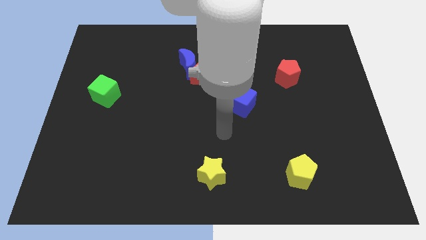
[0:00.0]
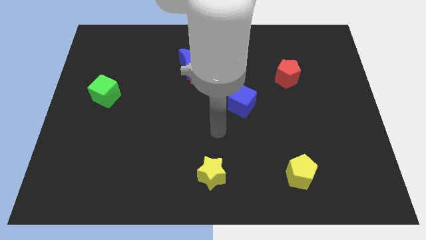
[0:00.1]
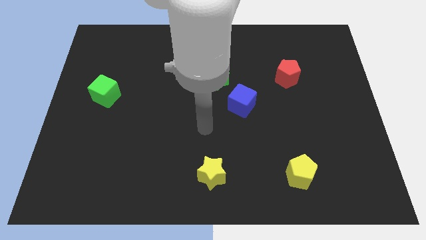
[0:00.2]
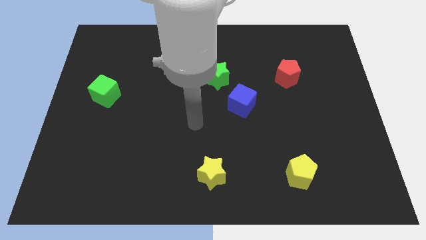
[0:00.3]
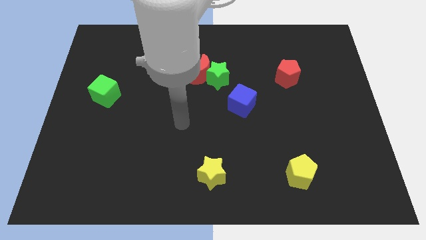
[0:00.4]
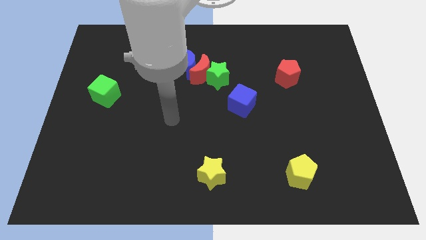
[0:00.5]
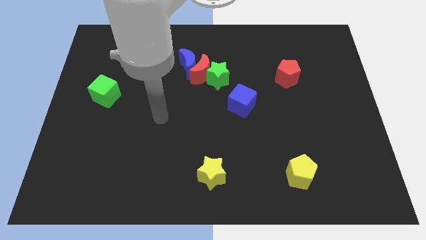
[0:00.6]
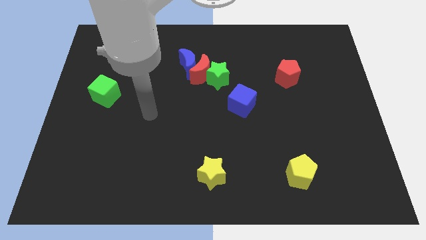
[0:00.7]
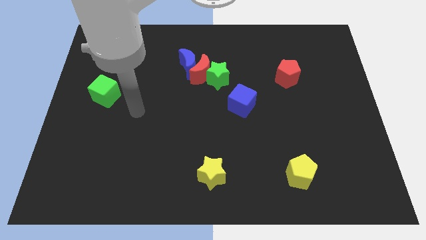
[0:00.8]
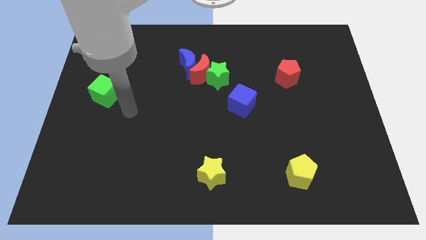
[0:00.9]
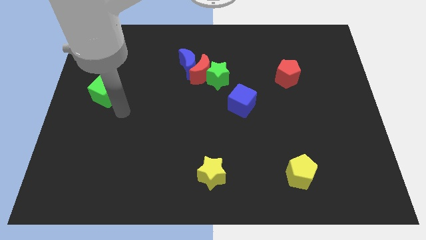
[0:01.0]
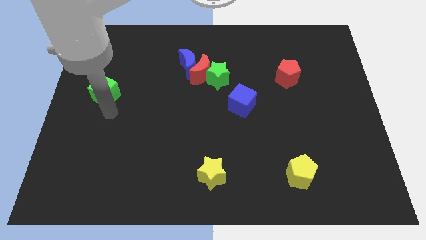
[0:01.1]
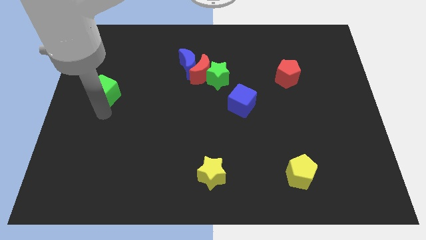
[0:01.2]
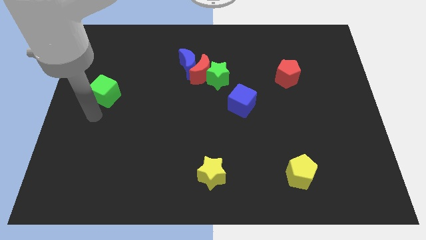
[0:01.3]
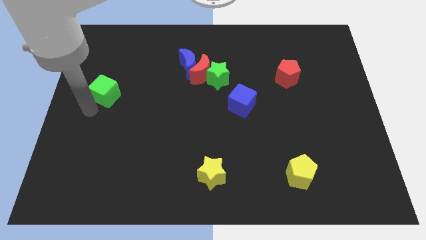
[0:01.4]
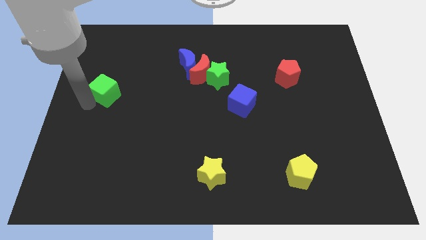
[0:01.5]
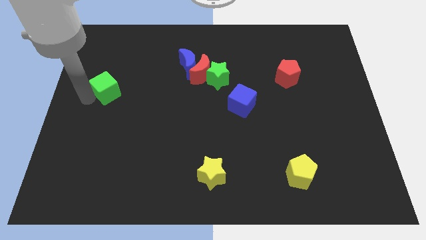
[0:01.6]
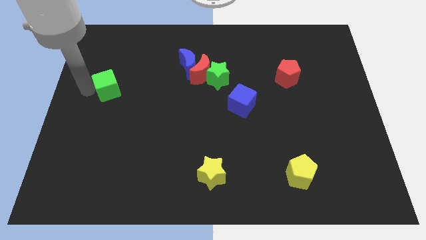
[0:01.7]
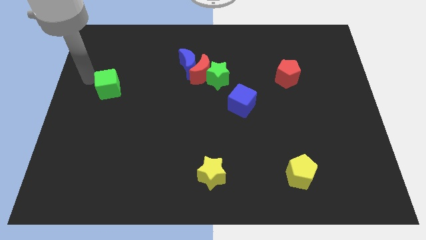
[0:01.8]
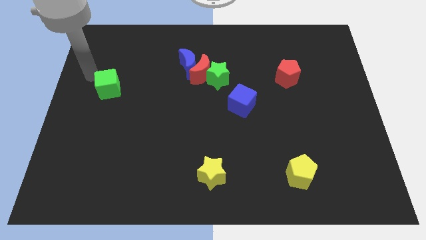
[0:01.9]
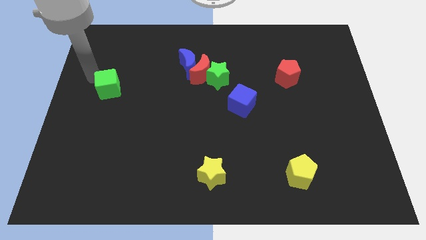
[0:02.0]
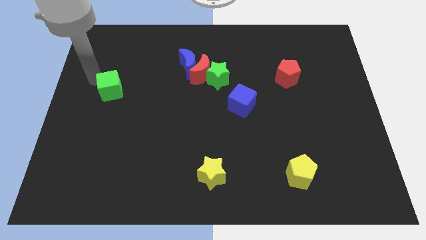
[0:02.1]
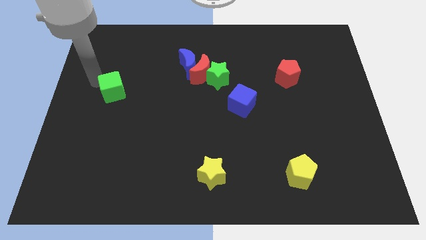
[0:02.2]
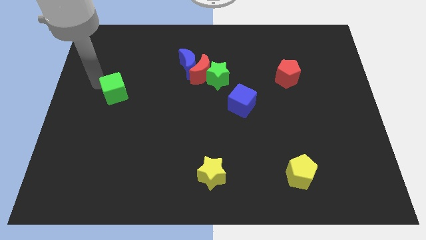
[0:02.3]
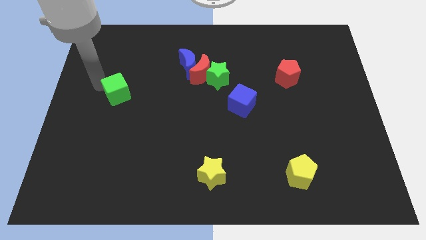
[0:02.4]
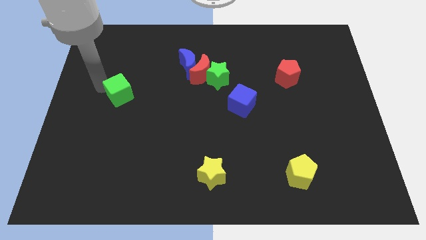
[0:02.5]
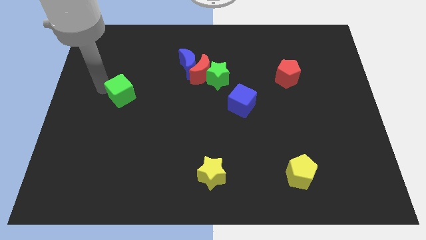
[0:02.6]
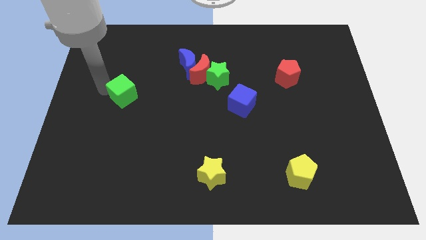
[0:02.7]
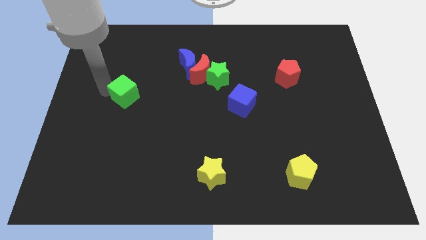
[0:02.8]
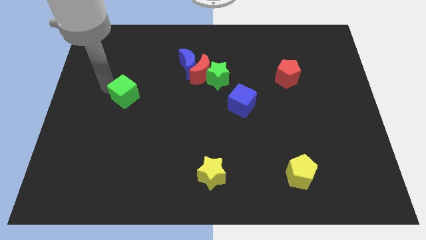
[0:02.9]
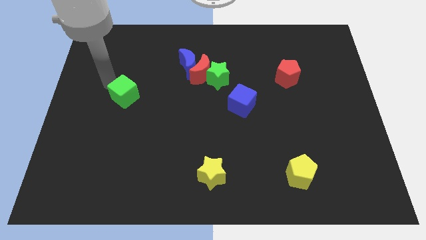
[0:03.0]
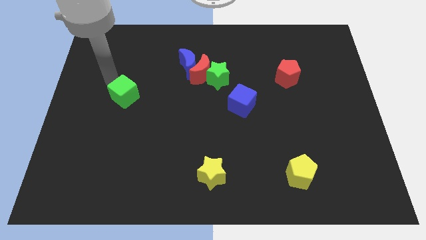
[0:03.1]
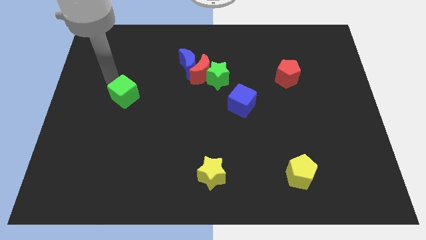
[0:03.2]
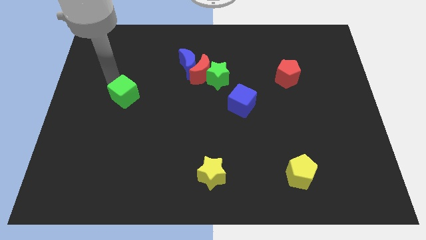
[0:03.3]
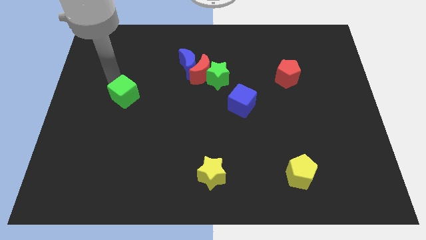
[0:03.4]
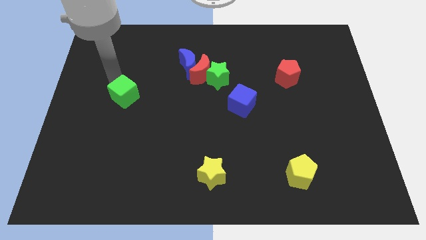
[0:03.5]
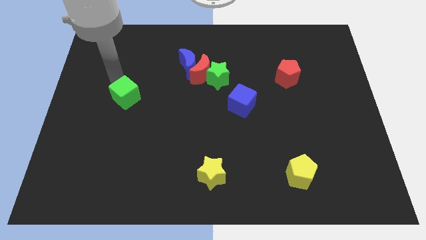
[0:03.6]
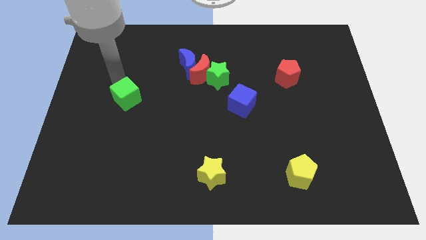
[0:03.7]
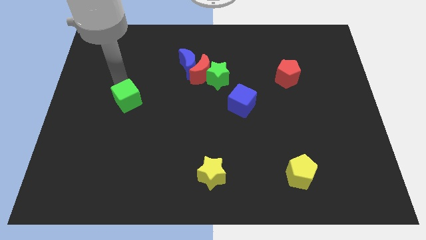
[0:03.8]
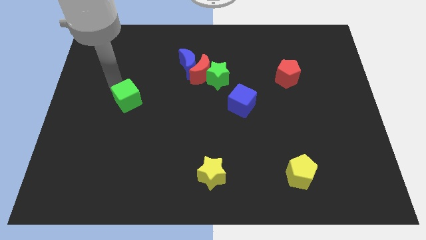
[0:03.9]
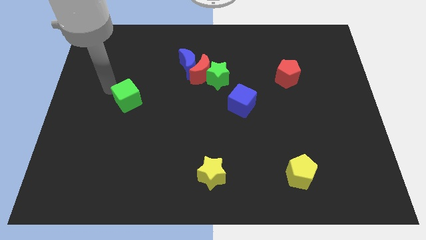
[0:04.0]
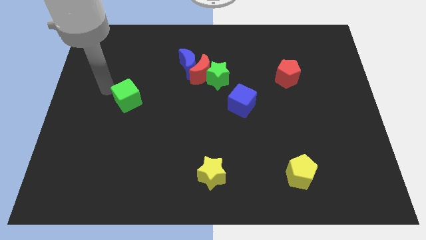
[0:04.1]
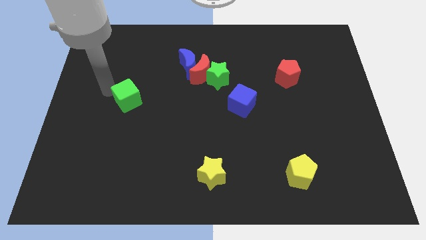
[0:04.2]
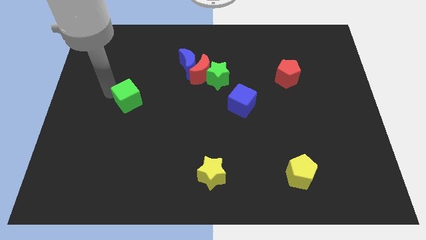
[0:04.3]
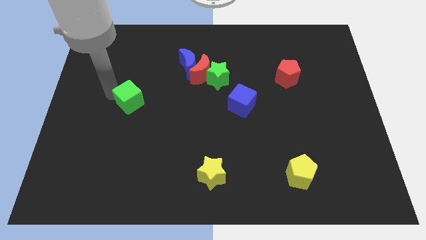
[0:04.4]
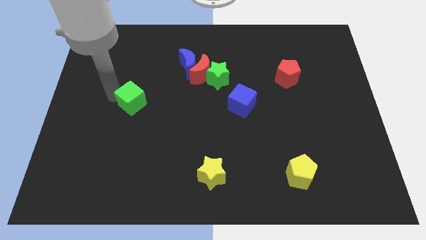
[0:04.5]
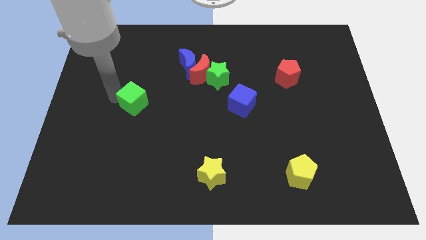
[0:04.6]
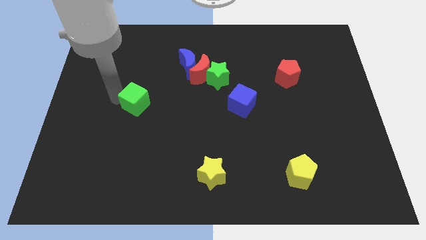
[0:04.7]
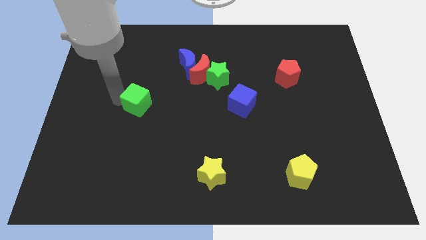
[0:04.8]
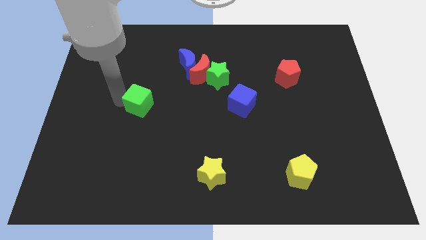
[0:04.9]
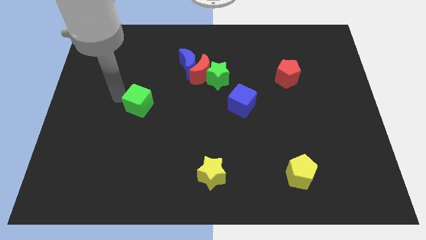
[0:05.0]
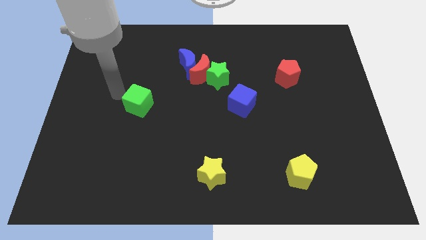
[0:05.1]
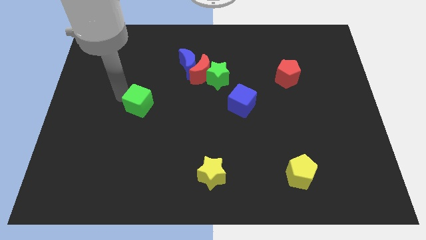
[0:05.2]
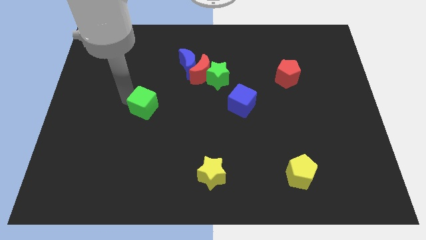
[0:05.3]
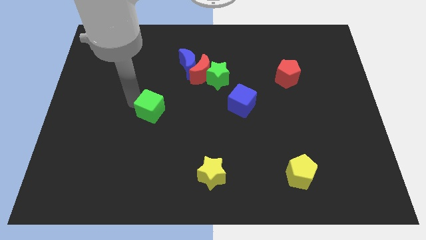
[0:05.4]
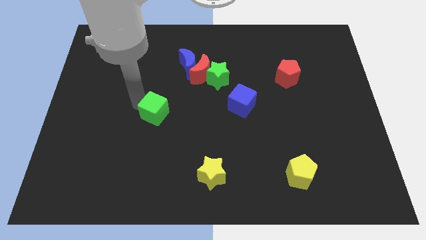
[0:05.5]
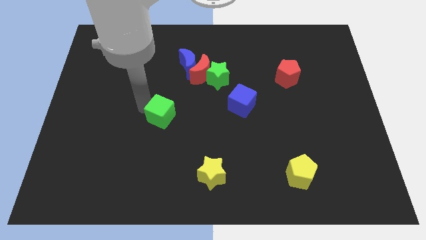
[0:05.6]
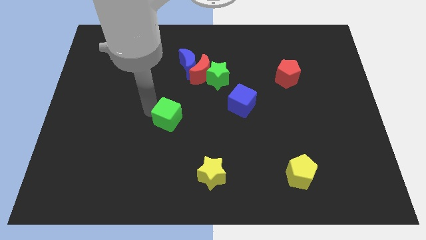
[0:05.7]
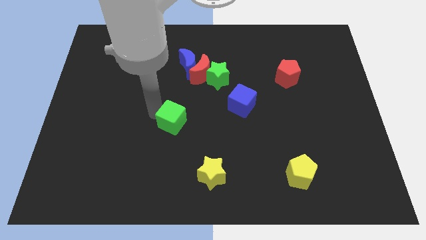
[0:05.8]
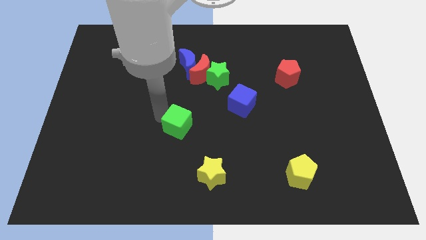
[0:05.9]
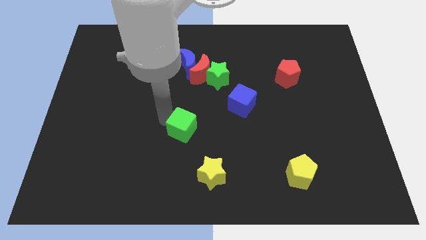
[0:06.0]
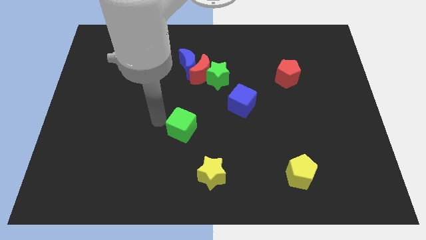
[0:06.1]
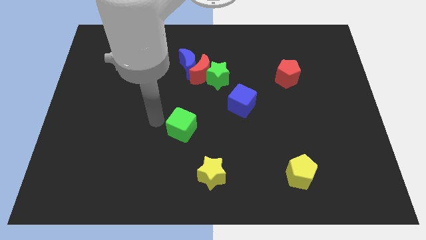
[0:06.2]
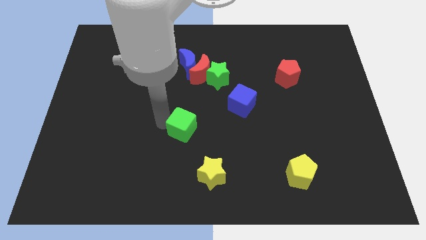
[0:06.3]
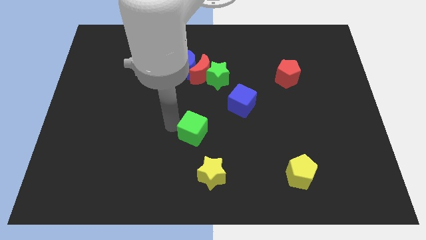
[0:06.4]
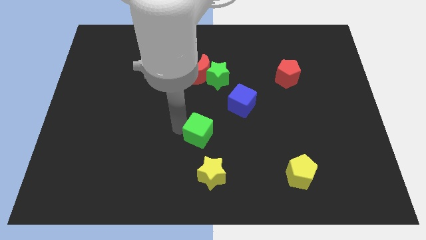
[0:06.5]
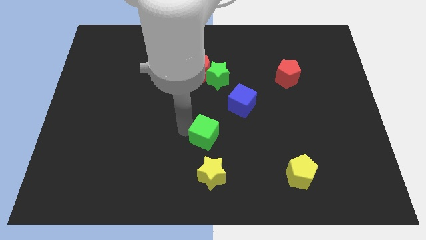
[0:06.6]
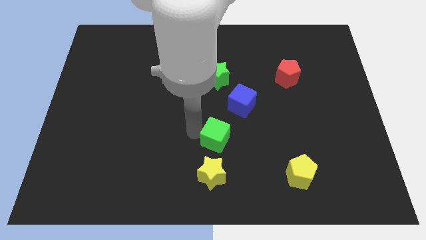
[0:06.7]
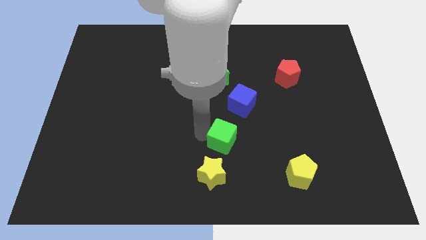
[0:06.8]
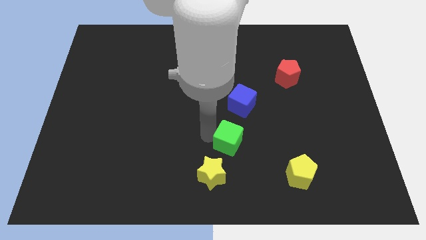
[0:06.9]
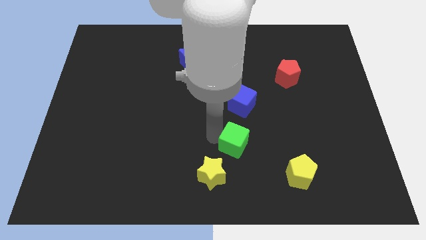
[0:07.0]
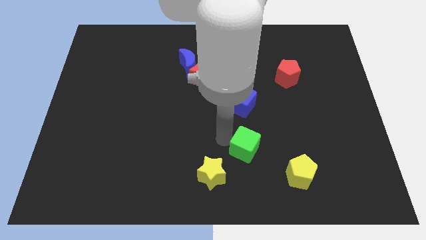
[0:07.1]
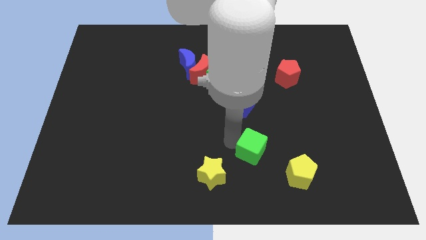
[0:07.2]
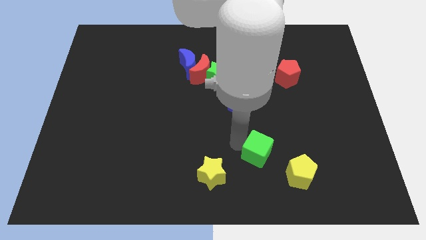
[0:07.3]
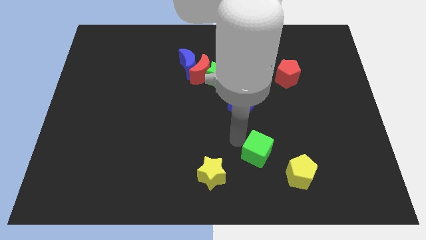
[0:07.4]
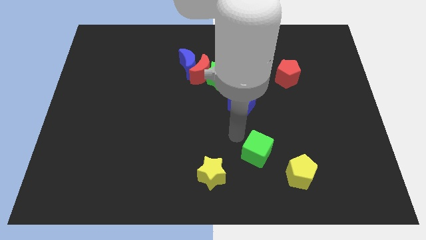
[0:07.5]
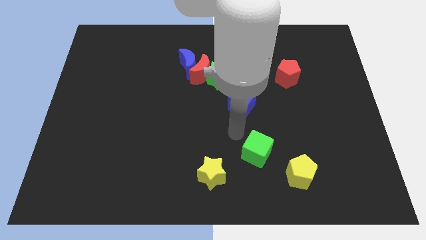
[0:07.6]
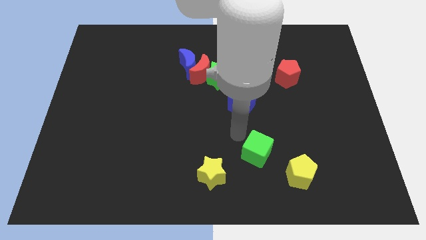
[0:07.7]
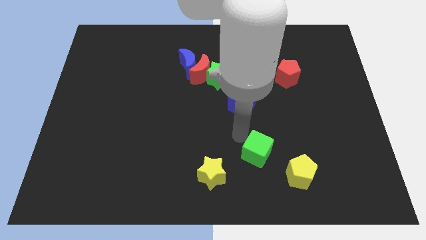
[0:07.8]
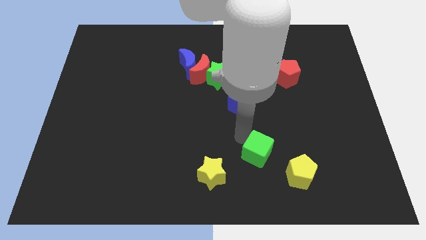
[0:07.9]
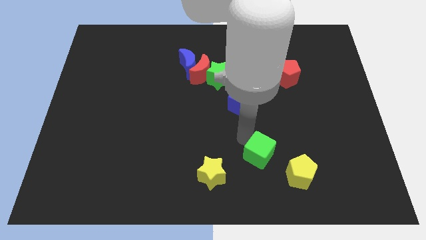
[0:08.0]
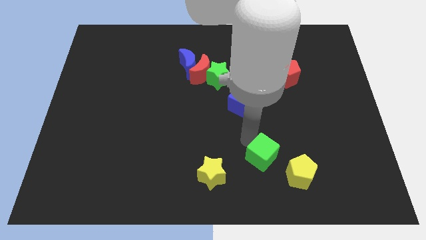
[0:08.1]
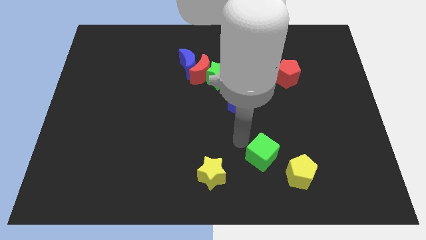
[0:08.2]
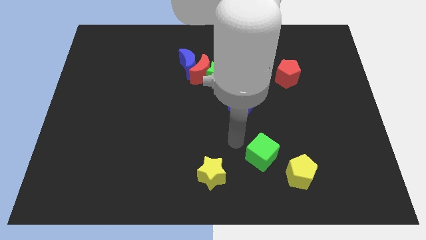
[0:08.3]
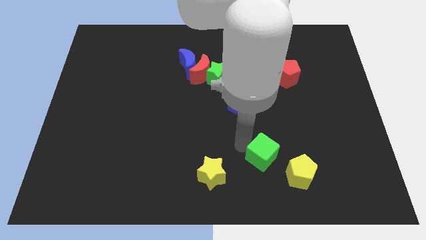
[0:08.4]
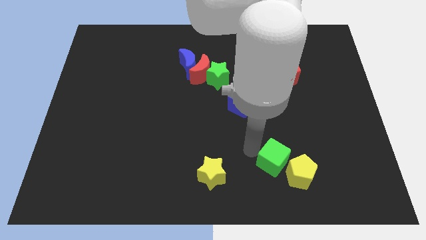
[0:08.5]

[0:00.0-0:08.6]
push the green cube close to the yellow pentagon
